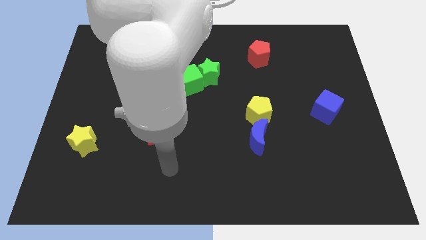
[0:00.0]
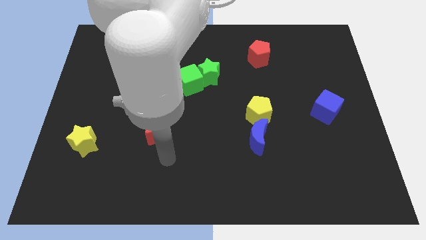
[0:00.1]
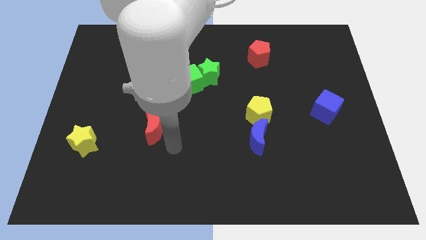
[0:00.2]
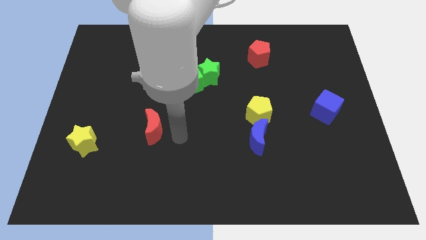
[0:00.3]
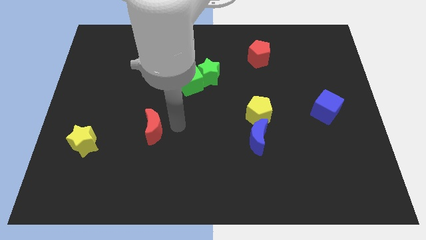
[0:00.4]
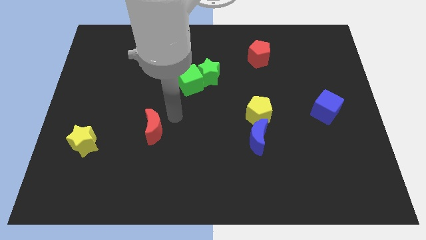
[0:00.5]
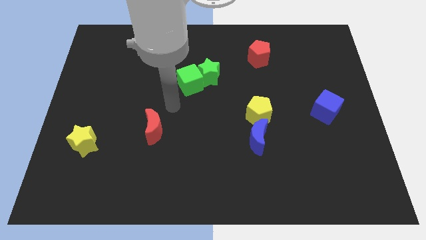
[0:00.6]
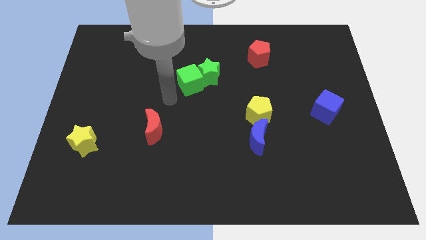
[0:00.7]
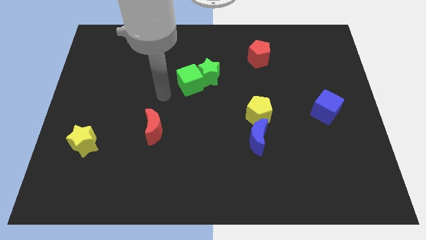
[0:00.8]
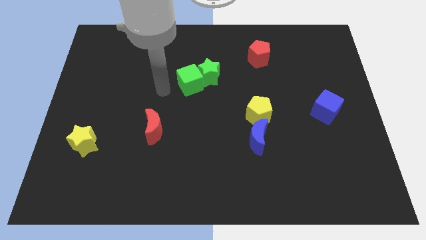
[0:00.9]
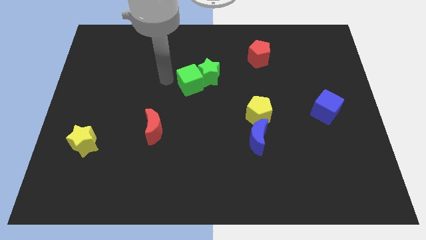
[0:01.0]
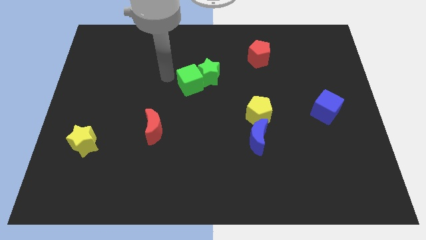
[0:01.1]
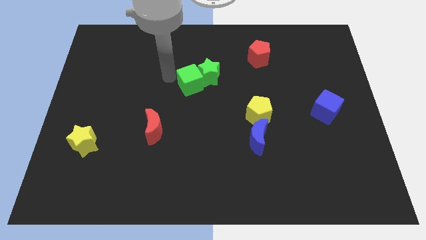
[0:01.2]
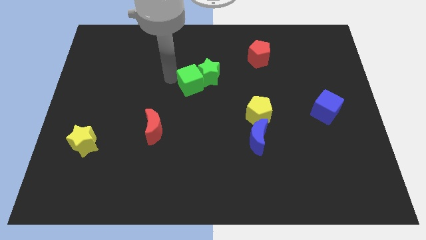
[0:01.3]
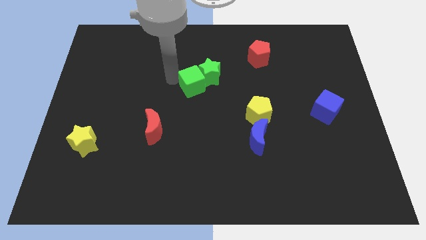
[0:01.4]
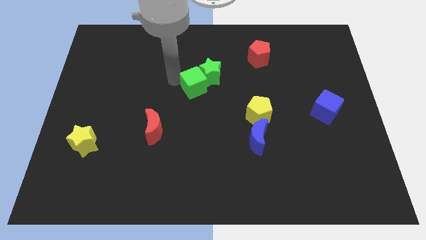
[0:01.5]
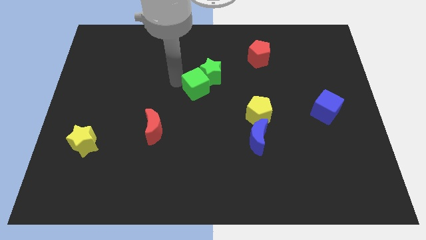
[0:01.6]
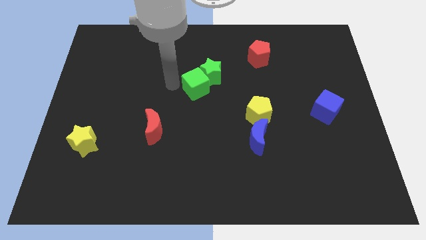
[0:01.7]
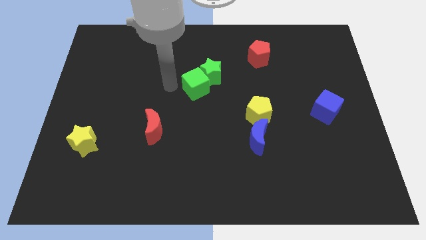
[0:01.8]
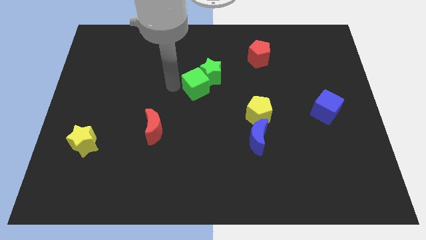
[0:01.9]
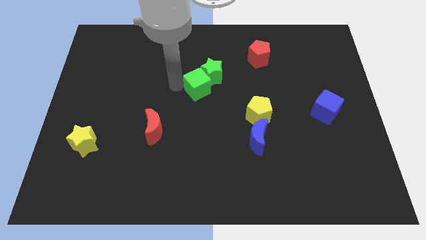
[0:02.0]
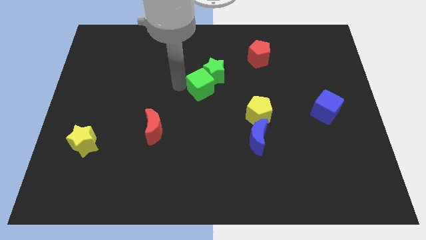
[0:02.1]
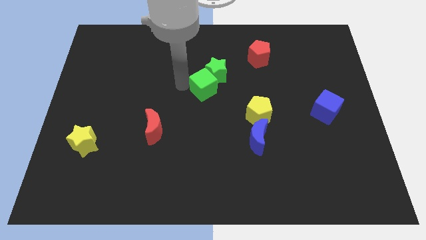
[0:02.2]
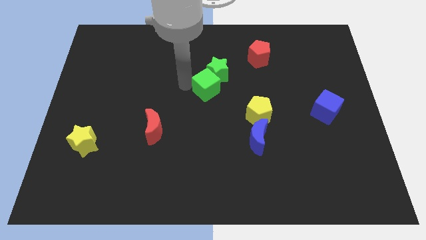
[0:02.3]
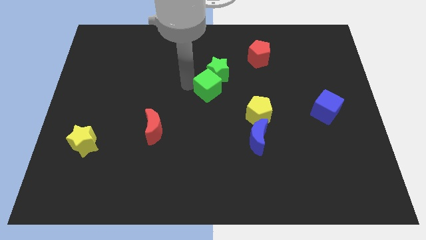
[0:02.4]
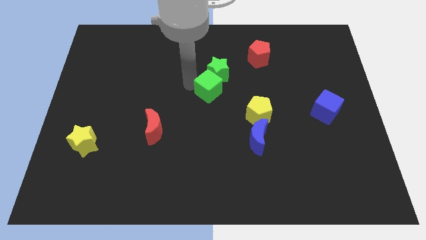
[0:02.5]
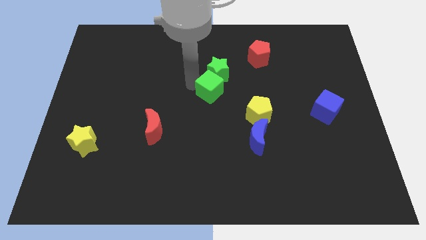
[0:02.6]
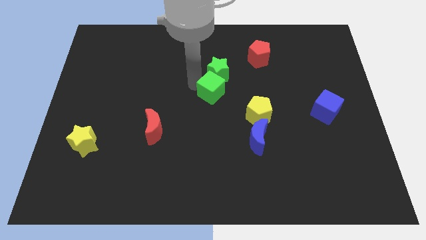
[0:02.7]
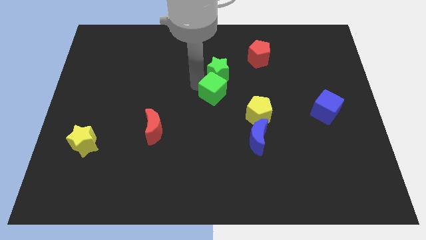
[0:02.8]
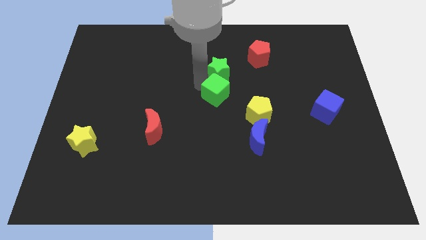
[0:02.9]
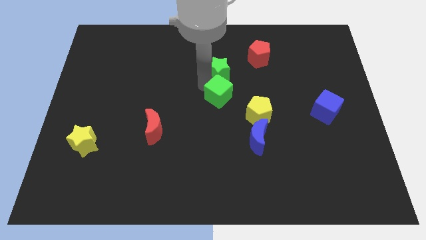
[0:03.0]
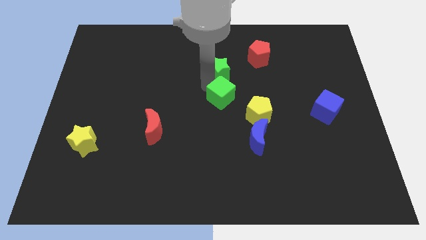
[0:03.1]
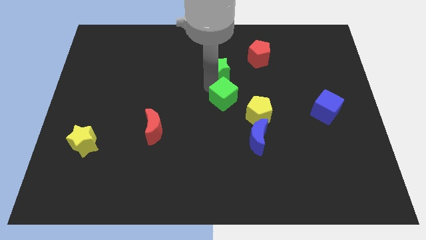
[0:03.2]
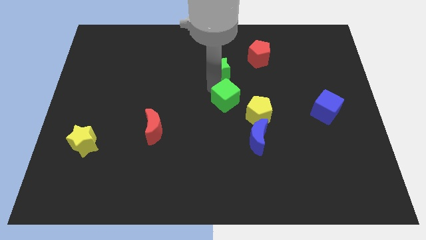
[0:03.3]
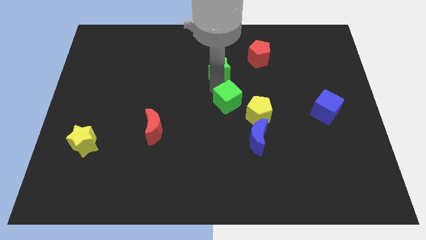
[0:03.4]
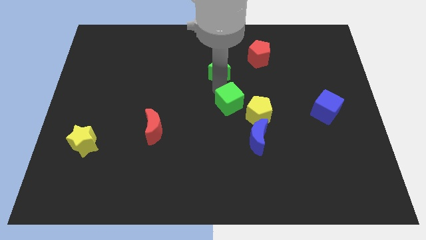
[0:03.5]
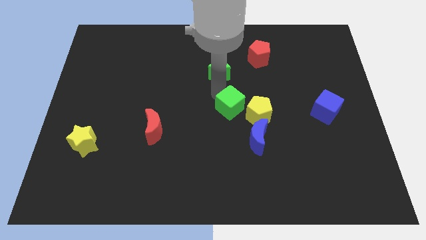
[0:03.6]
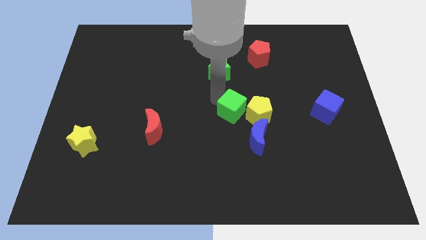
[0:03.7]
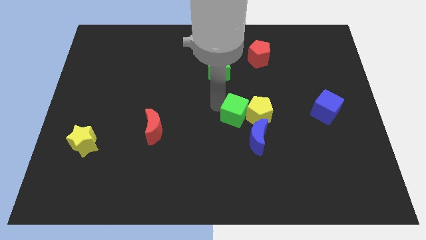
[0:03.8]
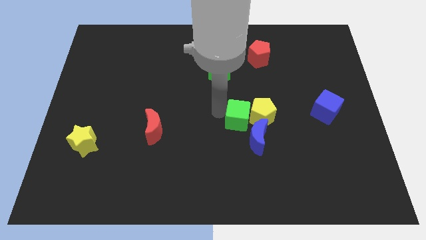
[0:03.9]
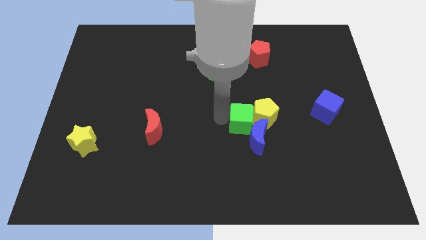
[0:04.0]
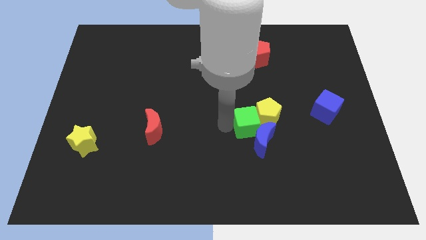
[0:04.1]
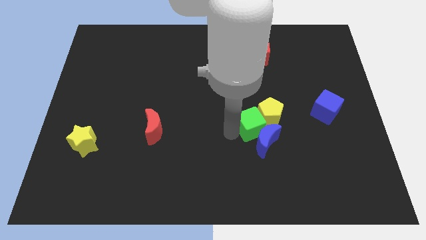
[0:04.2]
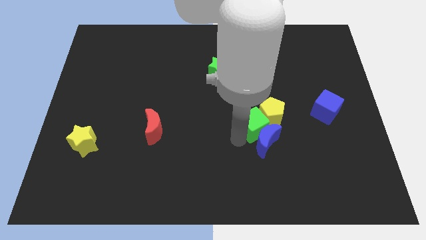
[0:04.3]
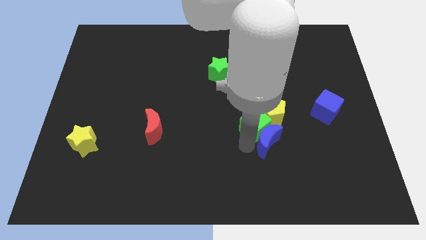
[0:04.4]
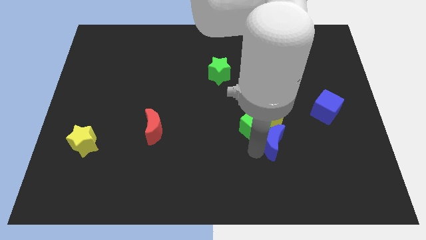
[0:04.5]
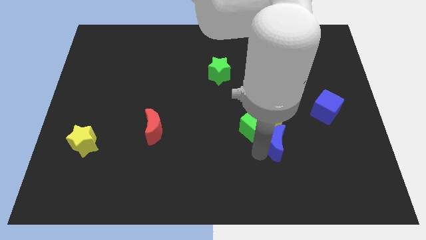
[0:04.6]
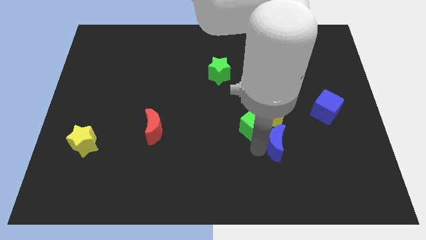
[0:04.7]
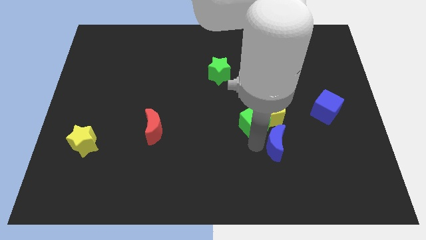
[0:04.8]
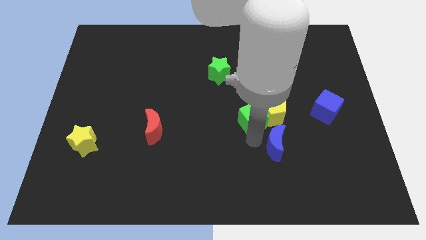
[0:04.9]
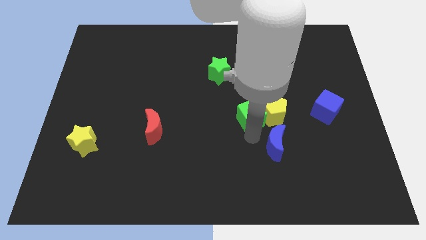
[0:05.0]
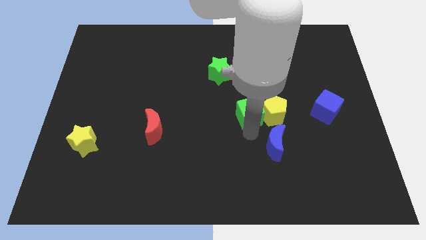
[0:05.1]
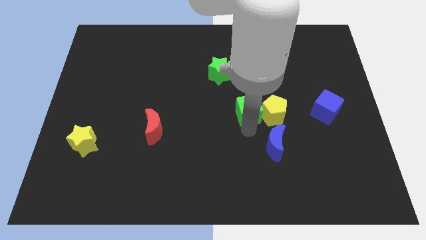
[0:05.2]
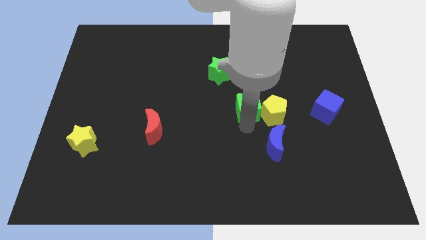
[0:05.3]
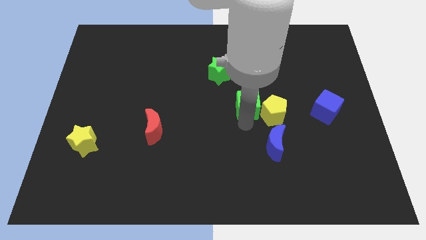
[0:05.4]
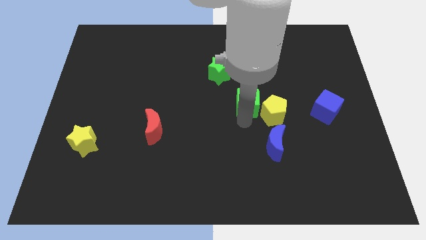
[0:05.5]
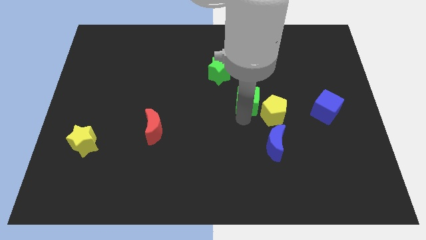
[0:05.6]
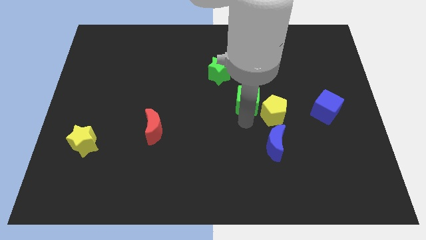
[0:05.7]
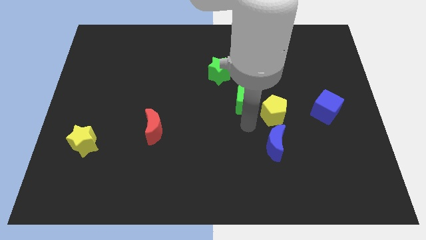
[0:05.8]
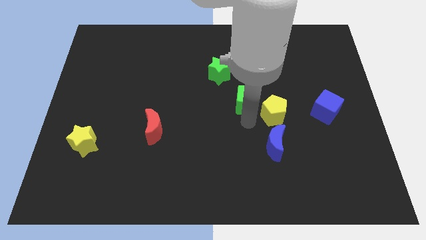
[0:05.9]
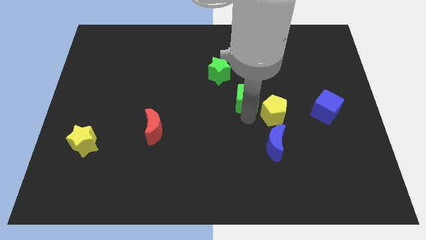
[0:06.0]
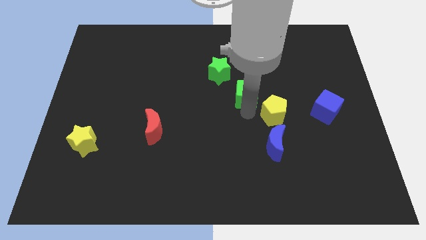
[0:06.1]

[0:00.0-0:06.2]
move the green cube to the bottom of the red pentagon

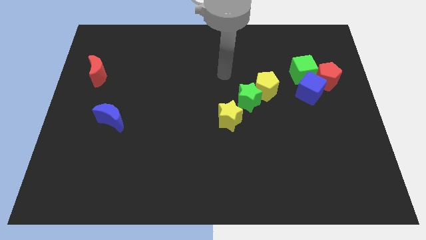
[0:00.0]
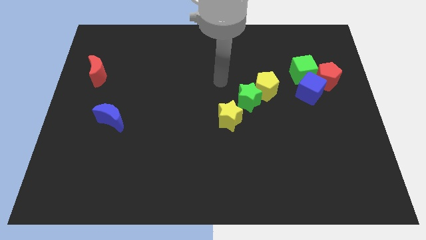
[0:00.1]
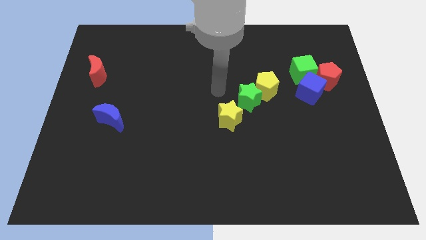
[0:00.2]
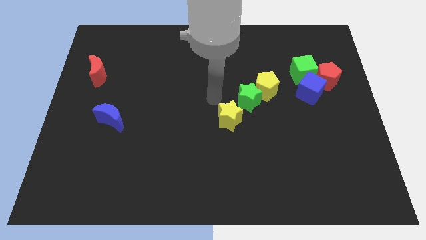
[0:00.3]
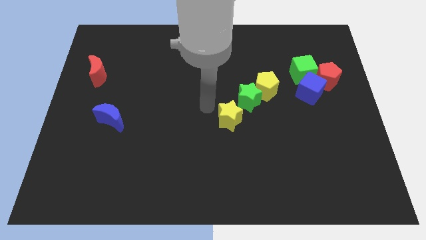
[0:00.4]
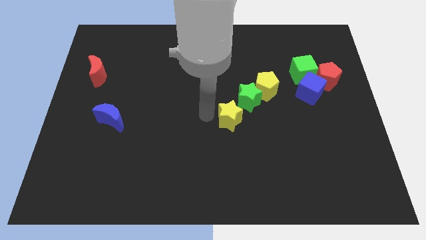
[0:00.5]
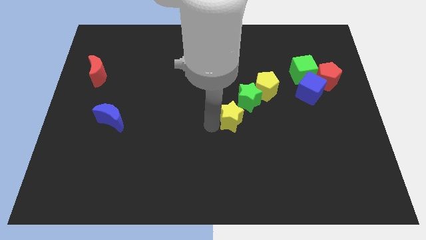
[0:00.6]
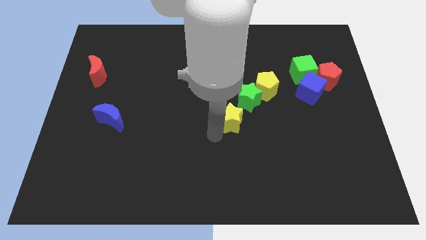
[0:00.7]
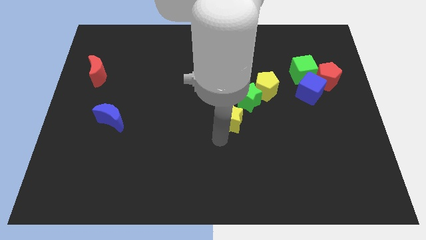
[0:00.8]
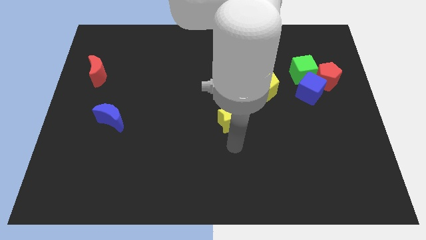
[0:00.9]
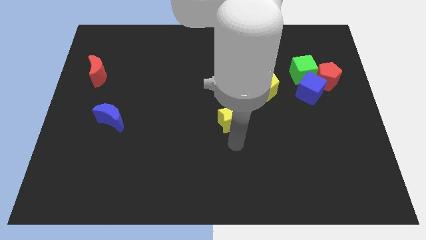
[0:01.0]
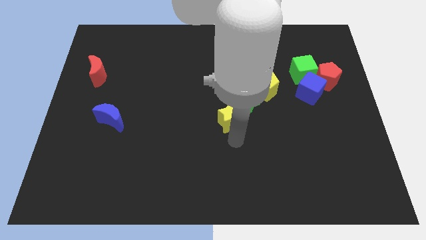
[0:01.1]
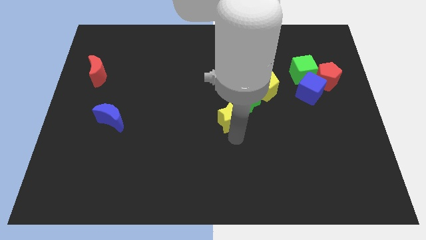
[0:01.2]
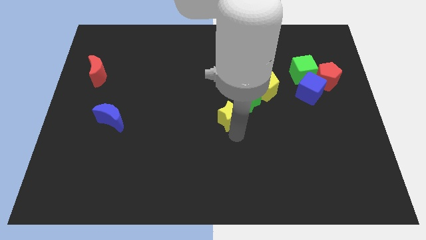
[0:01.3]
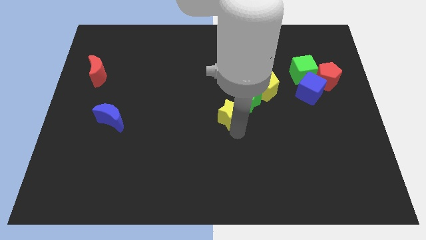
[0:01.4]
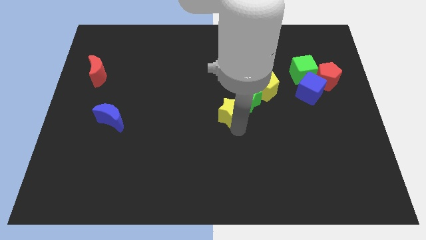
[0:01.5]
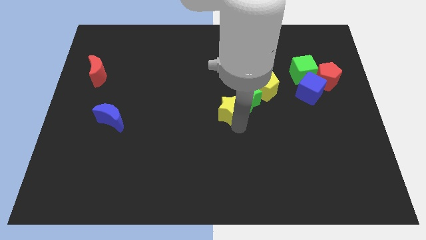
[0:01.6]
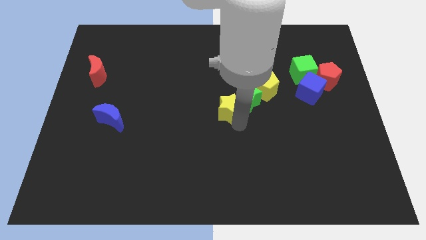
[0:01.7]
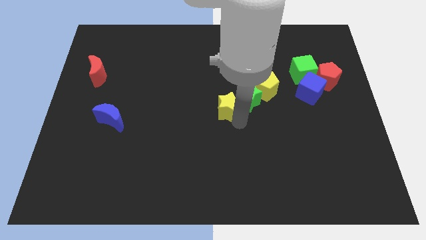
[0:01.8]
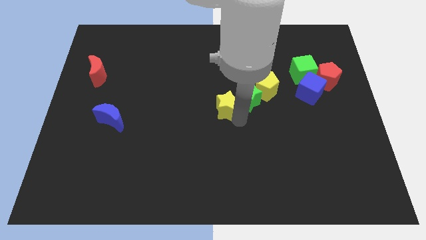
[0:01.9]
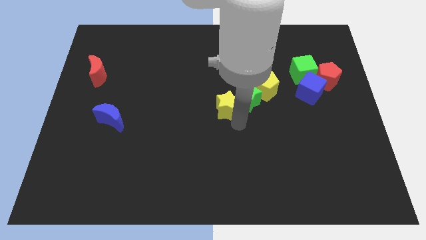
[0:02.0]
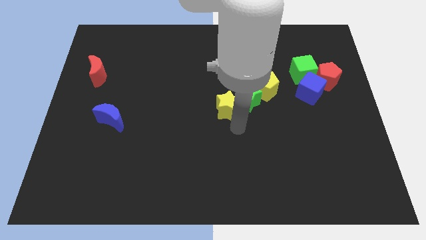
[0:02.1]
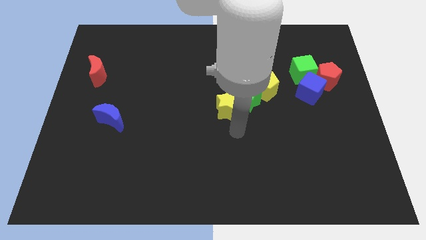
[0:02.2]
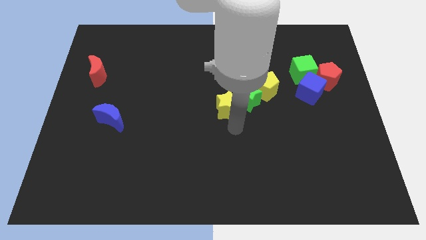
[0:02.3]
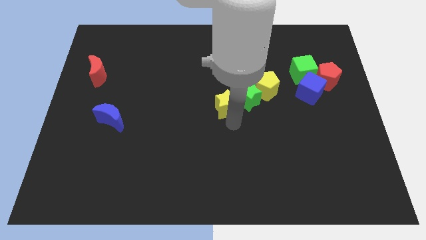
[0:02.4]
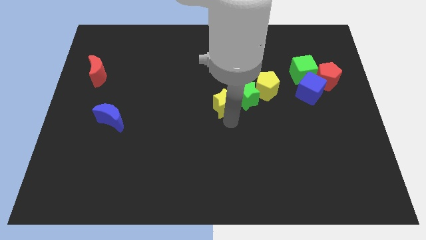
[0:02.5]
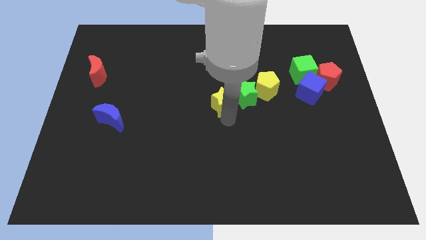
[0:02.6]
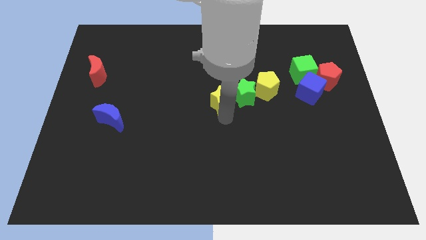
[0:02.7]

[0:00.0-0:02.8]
move the yellow star left of the yellow pentagon
